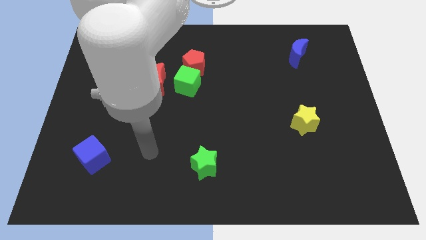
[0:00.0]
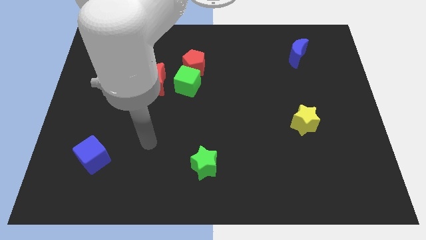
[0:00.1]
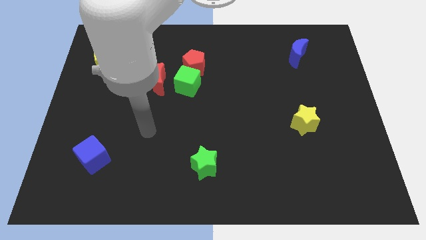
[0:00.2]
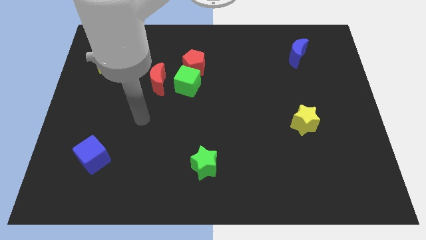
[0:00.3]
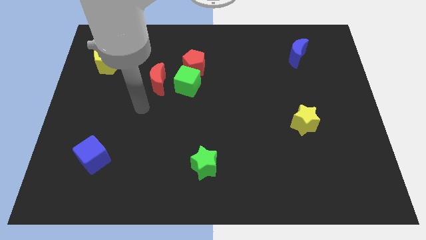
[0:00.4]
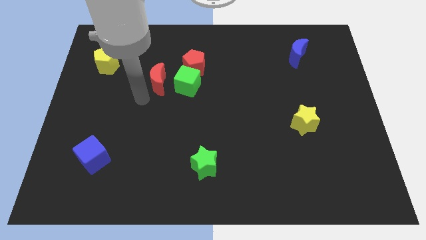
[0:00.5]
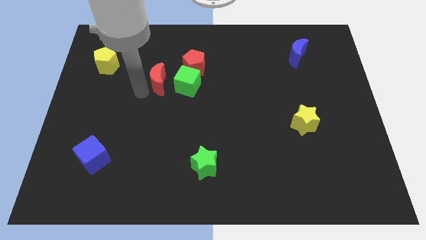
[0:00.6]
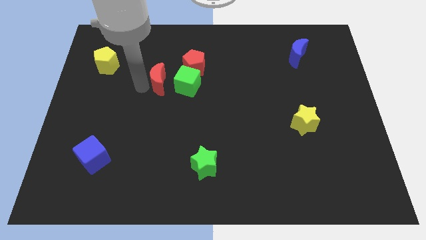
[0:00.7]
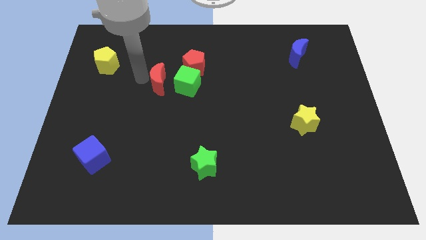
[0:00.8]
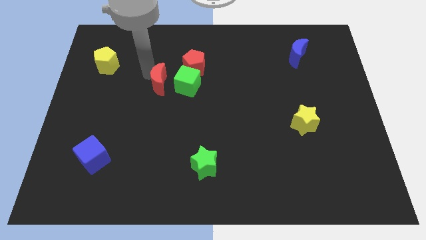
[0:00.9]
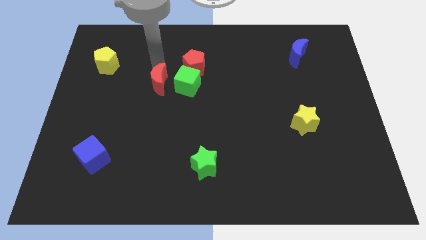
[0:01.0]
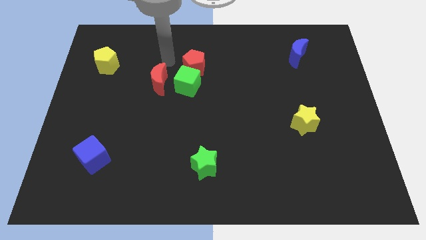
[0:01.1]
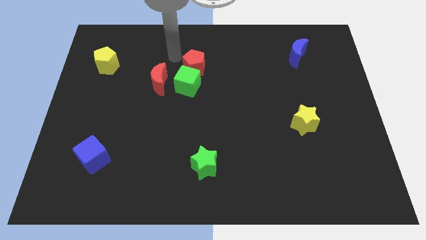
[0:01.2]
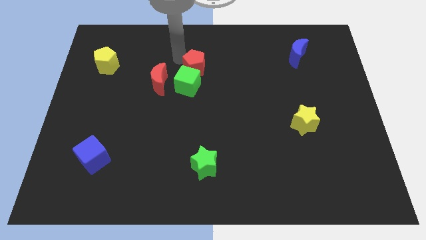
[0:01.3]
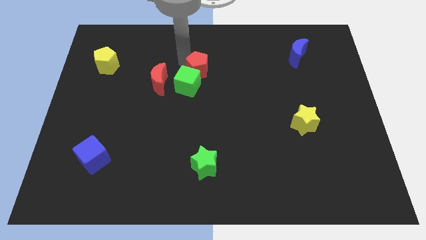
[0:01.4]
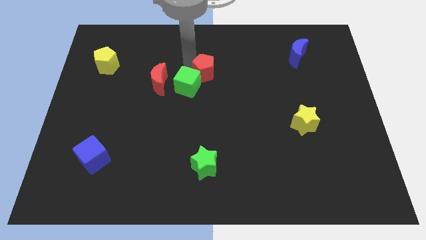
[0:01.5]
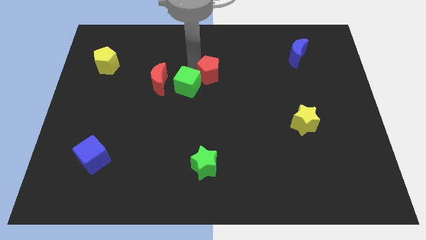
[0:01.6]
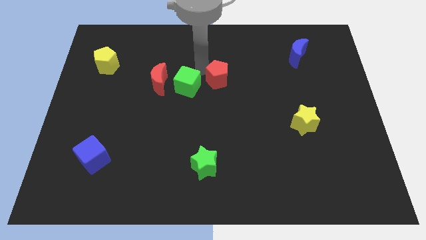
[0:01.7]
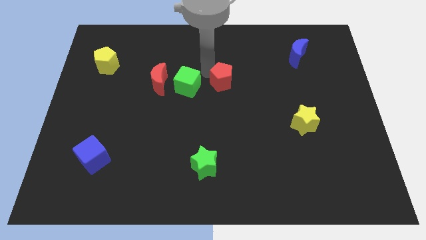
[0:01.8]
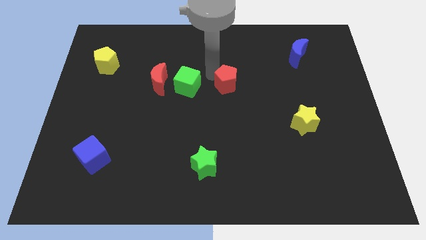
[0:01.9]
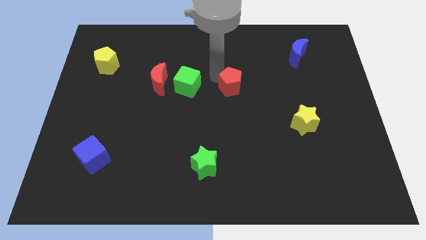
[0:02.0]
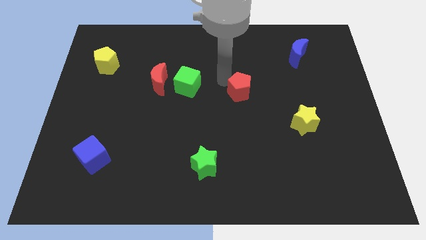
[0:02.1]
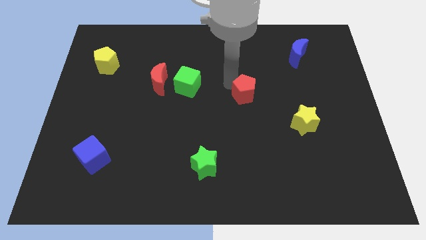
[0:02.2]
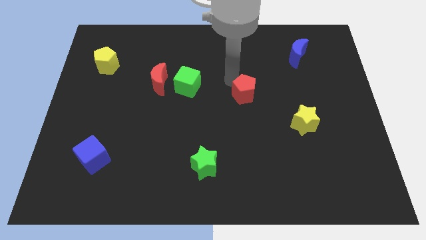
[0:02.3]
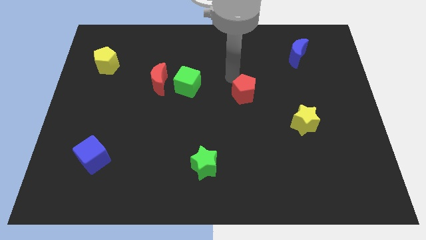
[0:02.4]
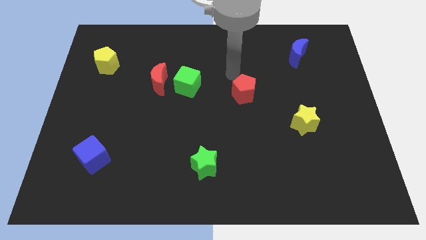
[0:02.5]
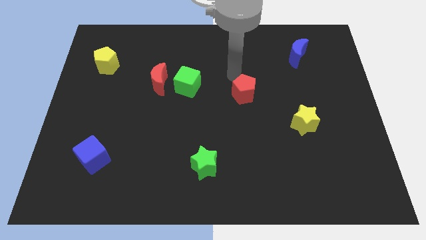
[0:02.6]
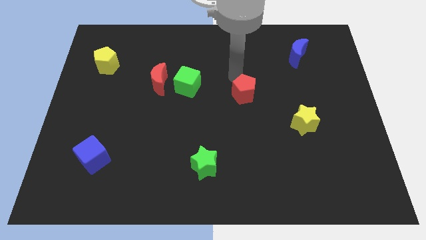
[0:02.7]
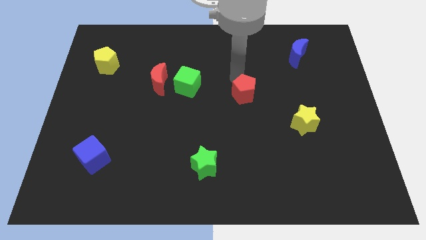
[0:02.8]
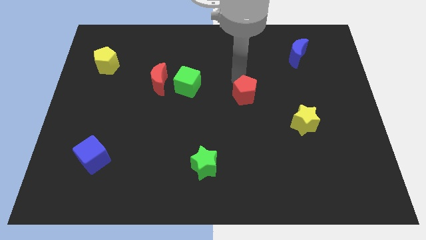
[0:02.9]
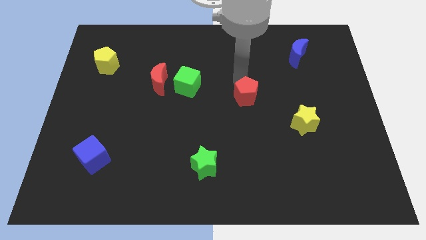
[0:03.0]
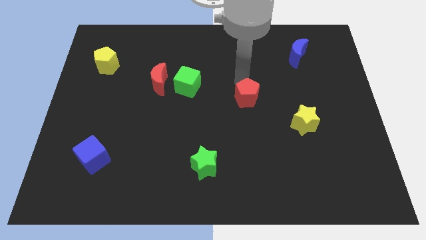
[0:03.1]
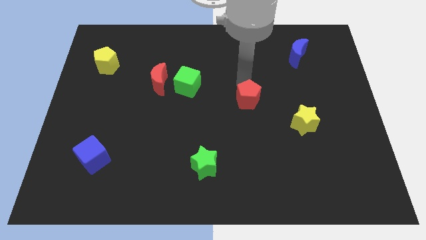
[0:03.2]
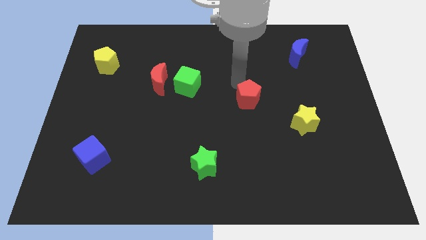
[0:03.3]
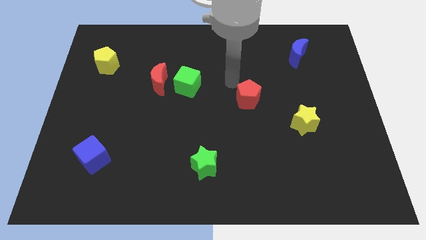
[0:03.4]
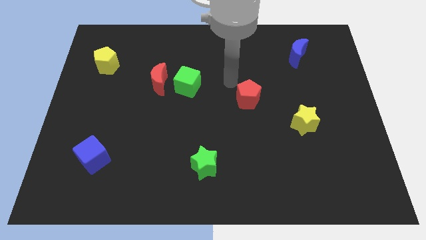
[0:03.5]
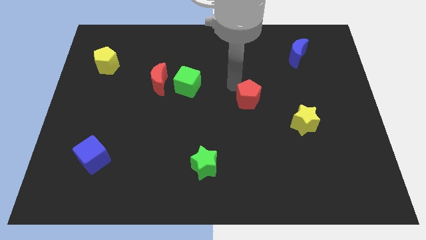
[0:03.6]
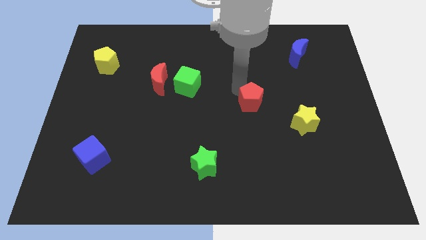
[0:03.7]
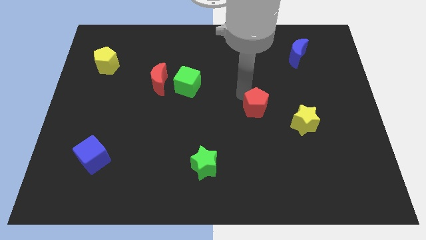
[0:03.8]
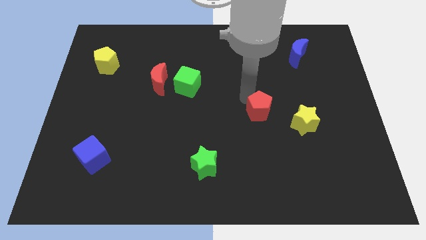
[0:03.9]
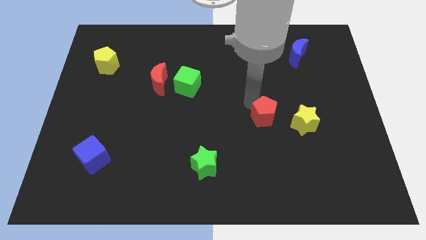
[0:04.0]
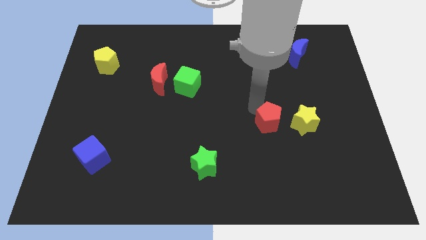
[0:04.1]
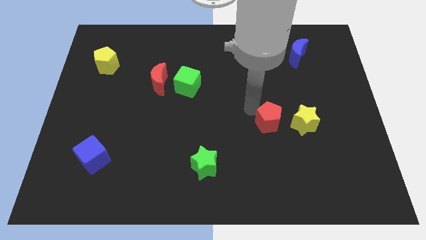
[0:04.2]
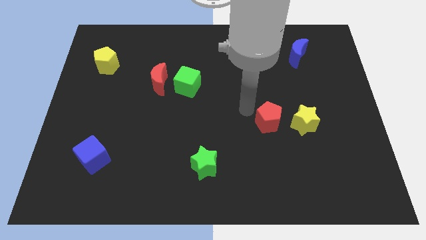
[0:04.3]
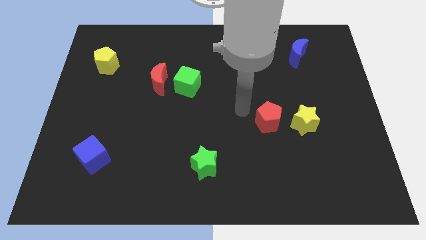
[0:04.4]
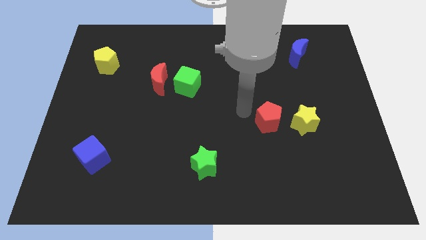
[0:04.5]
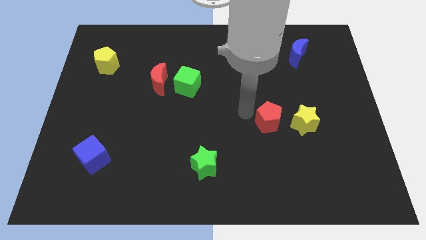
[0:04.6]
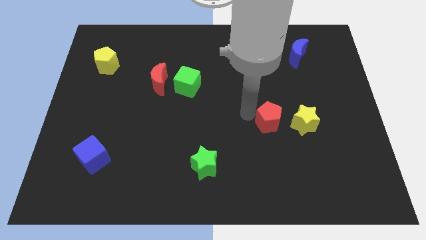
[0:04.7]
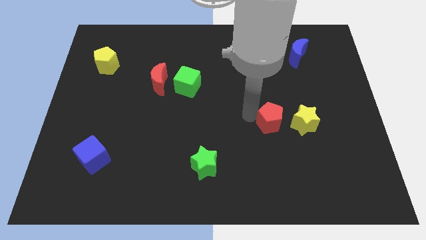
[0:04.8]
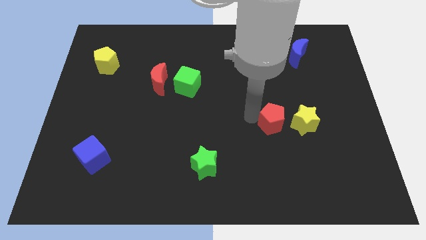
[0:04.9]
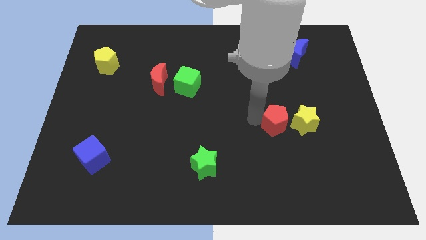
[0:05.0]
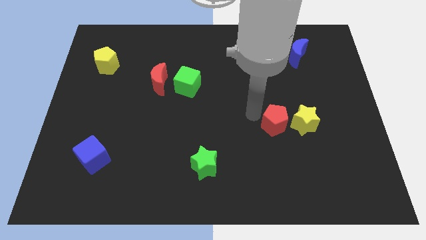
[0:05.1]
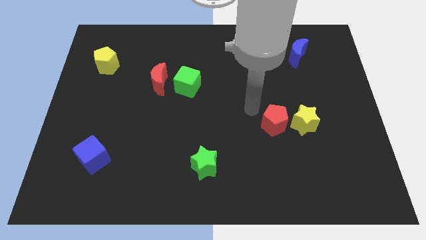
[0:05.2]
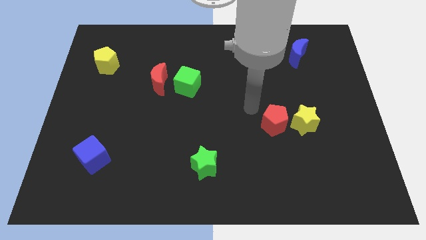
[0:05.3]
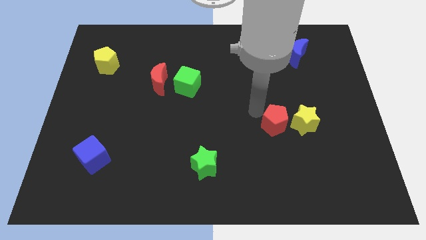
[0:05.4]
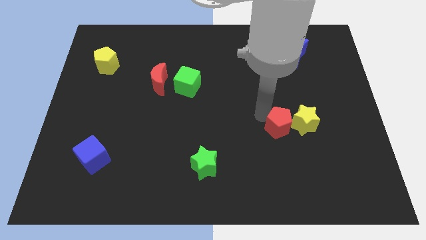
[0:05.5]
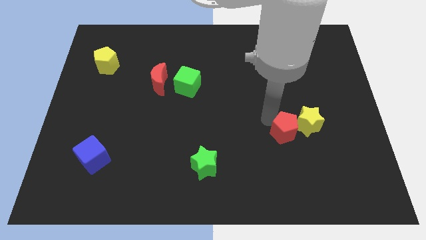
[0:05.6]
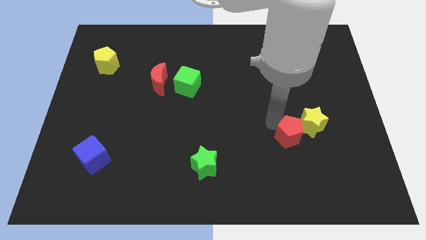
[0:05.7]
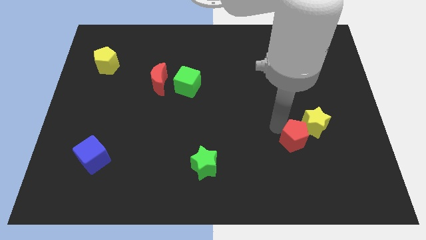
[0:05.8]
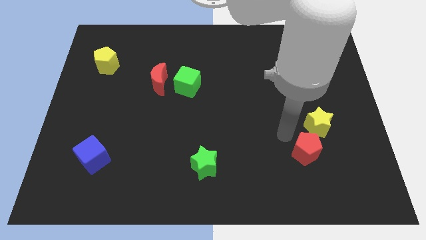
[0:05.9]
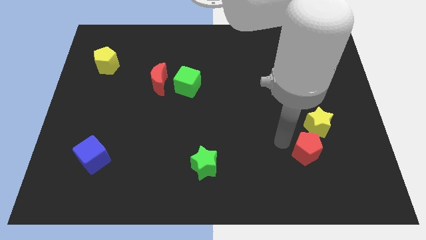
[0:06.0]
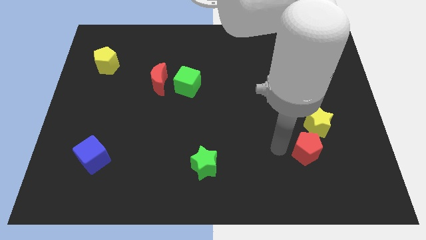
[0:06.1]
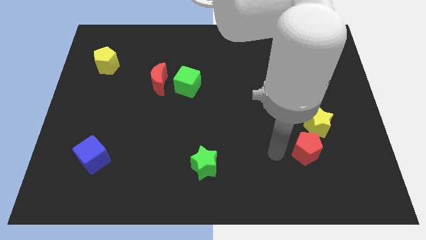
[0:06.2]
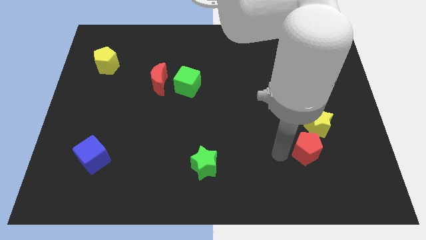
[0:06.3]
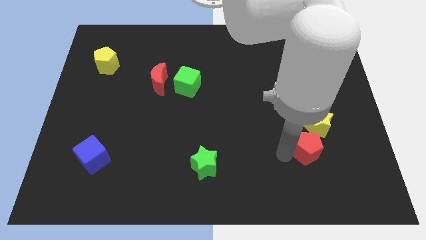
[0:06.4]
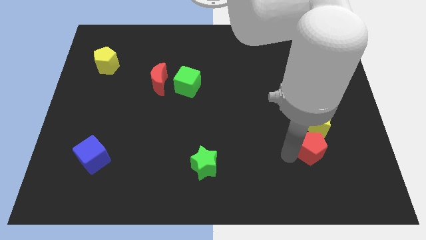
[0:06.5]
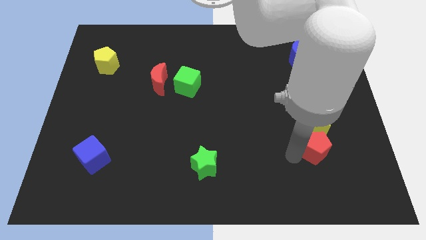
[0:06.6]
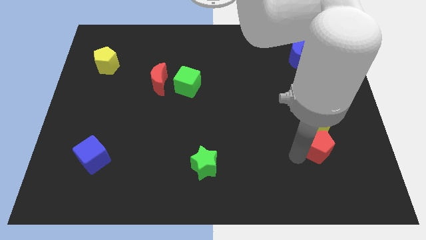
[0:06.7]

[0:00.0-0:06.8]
move the red pentagon diagonally down and to the right of the yellow star
